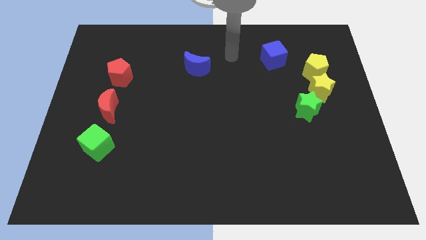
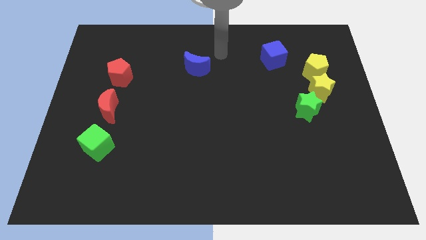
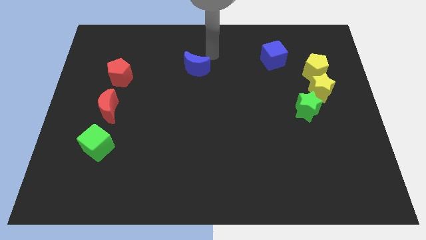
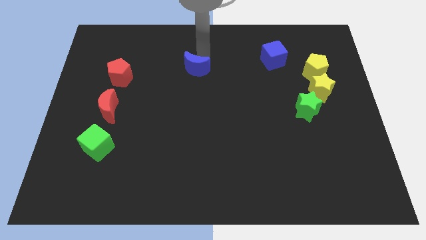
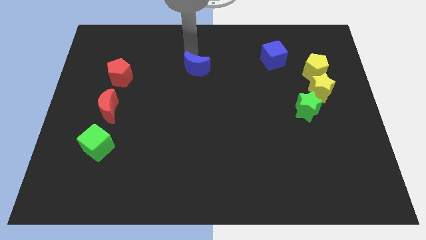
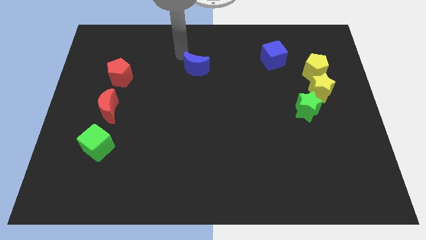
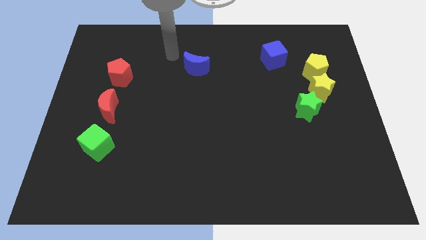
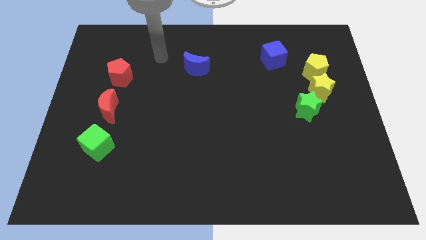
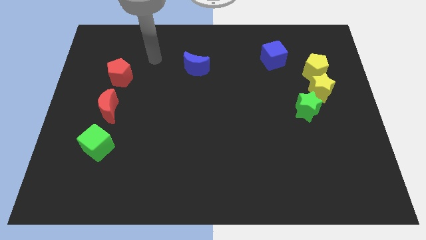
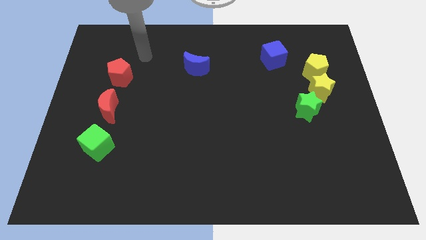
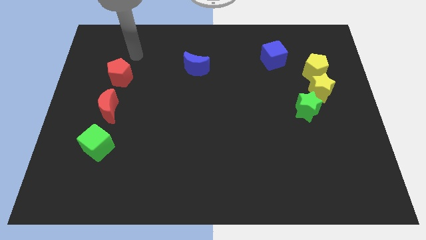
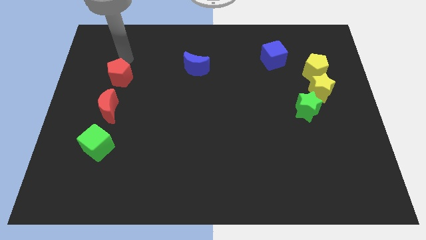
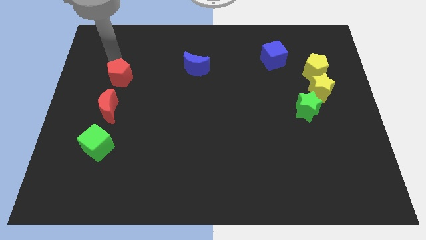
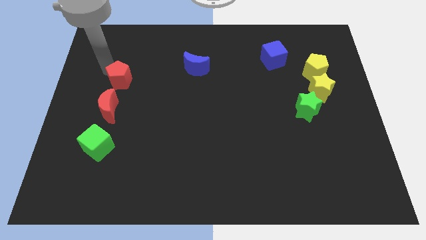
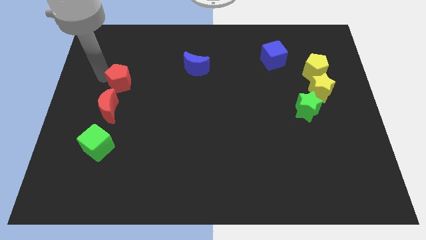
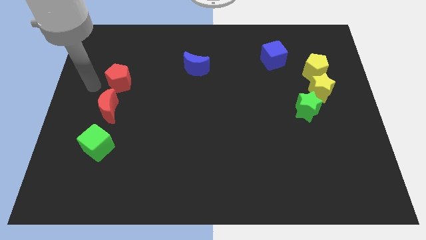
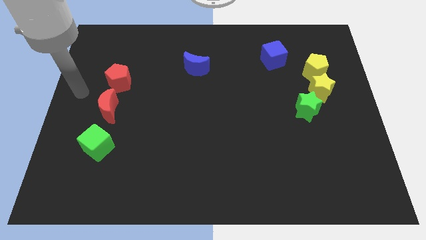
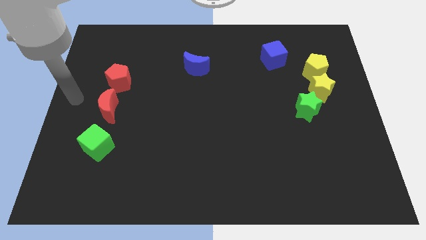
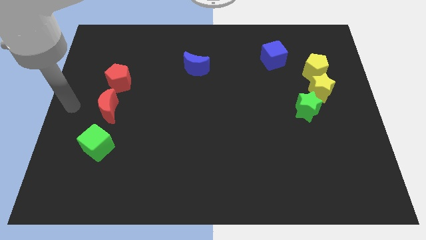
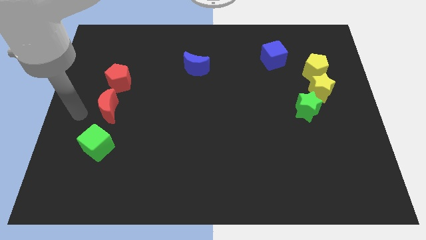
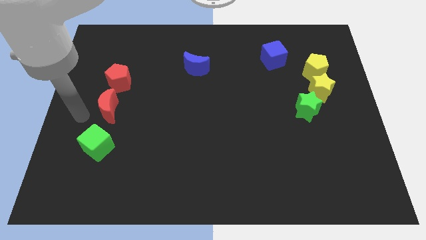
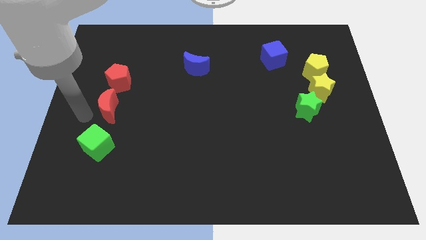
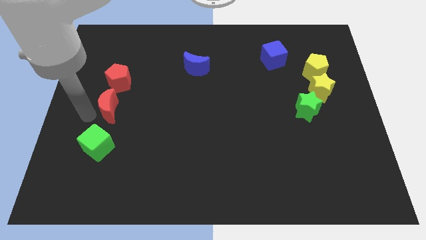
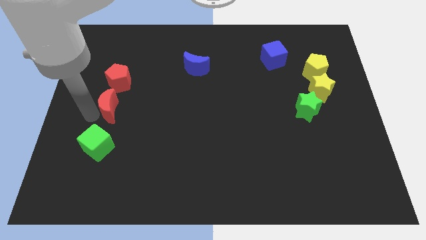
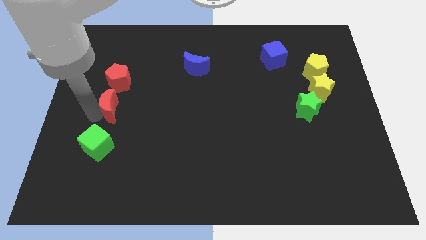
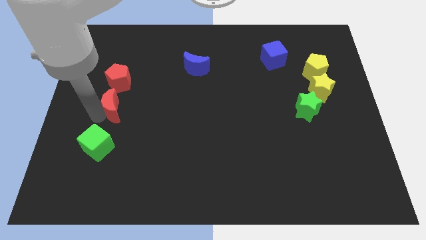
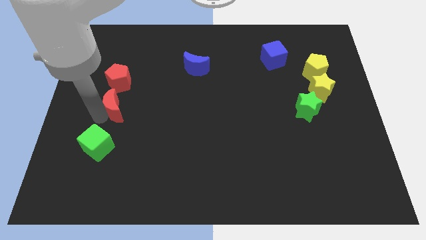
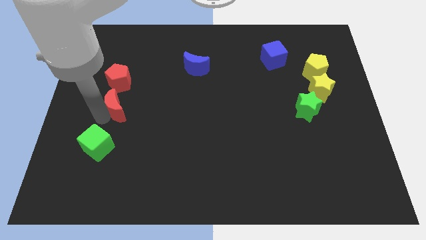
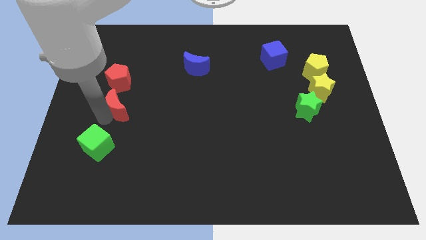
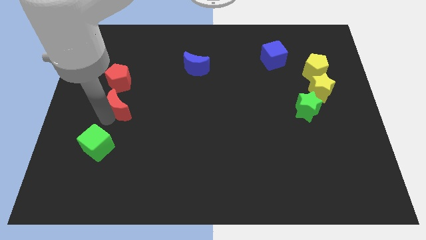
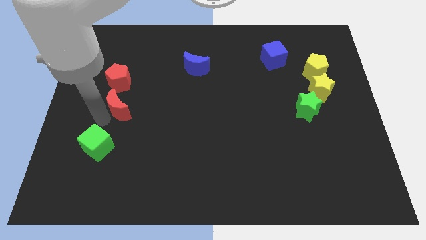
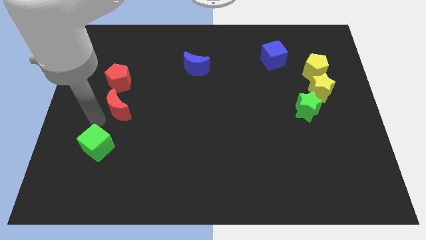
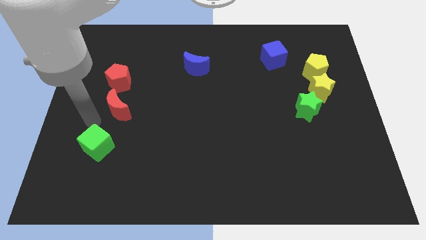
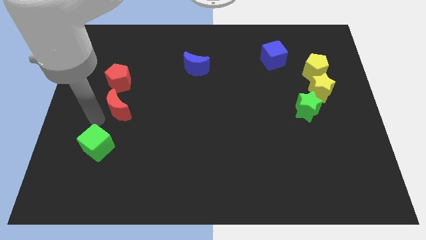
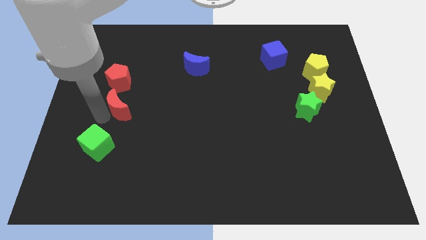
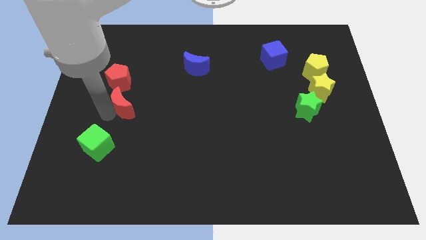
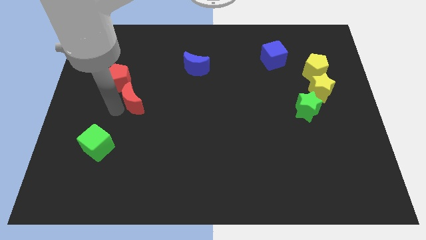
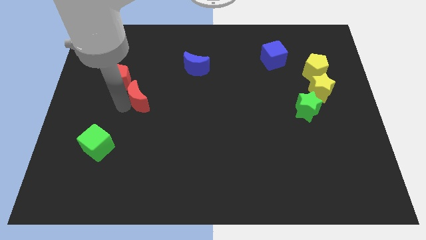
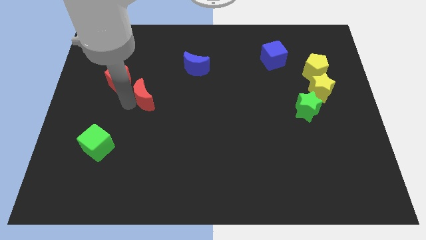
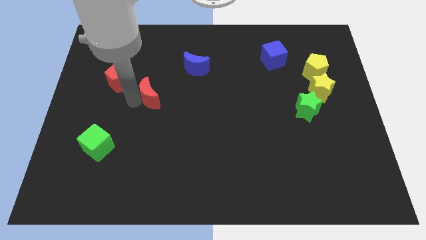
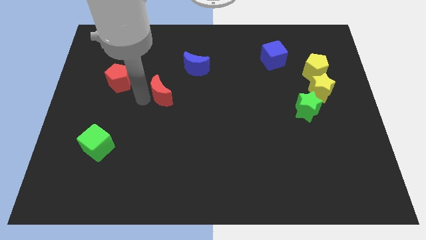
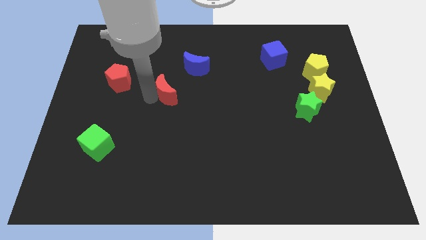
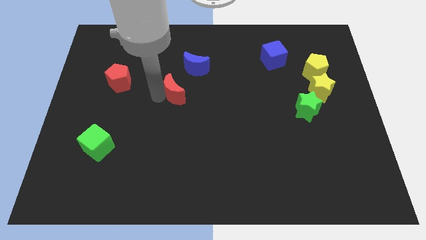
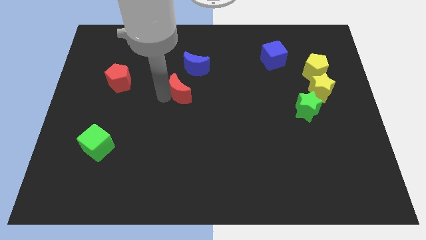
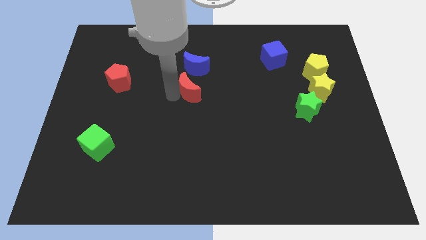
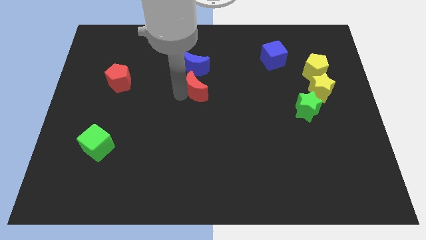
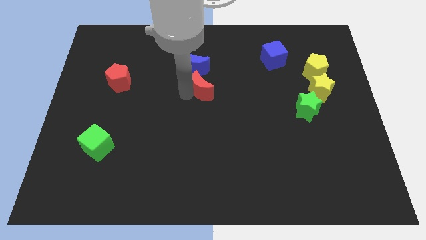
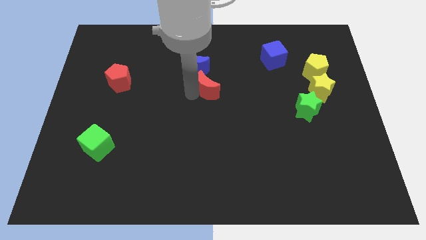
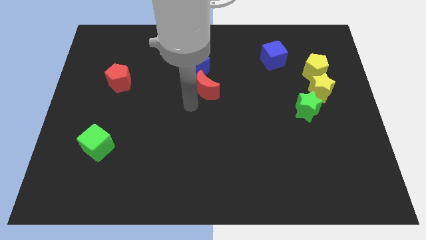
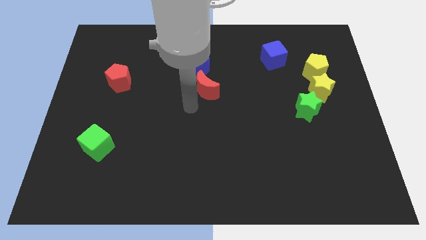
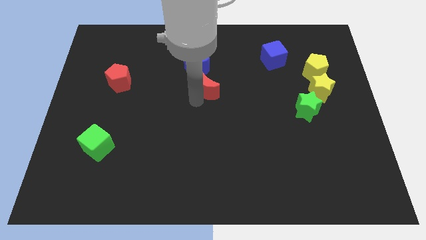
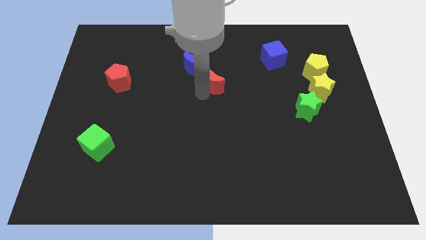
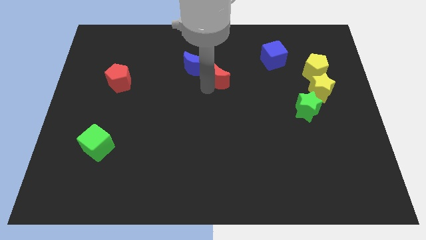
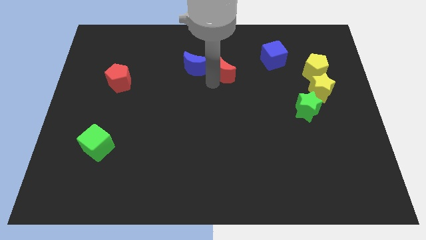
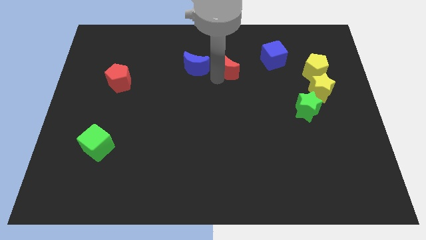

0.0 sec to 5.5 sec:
slide the red moon to the left of the blue cube

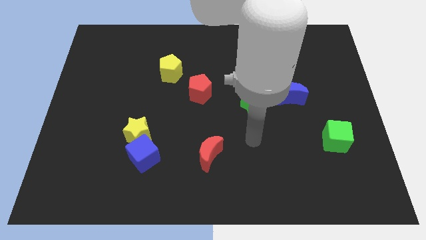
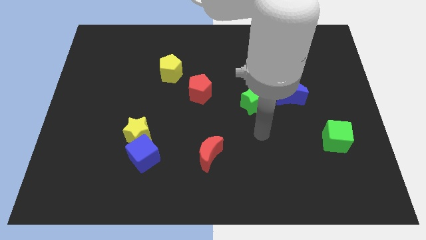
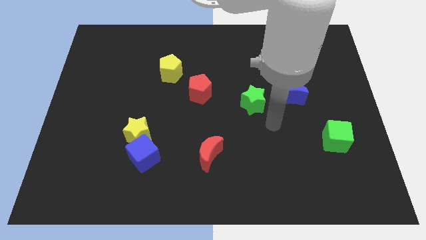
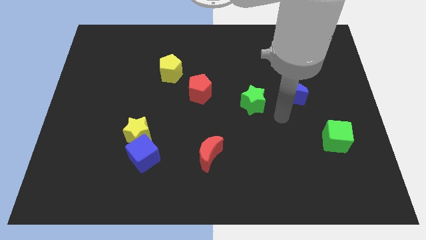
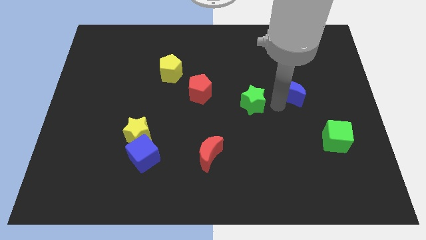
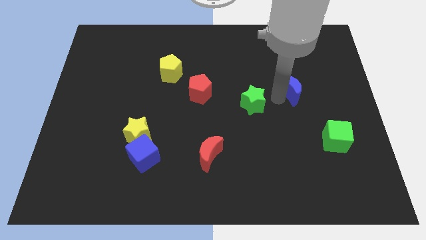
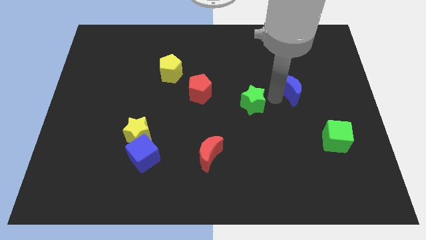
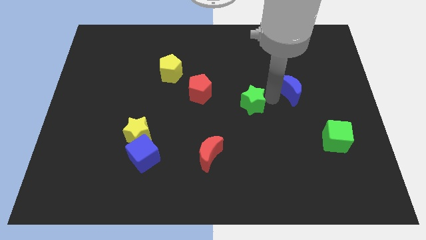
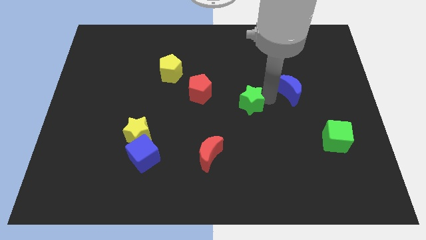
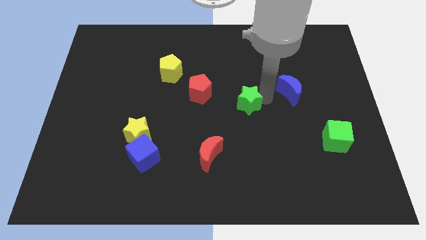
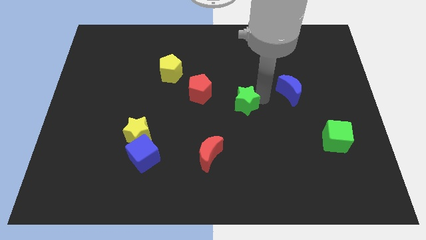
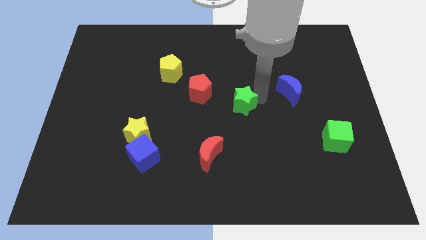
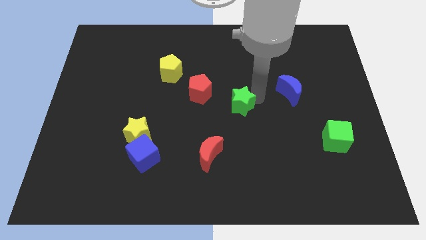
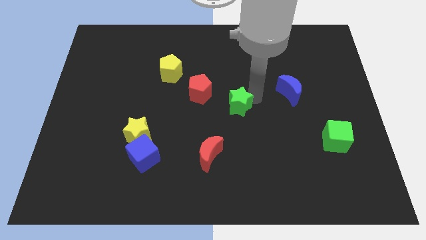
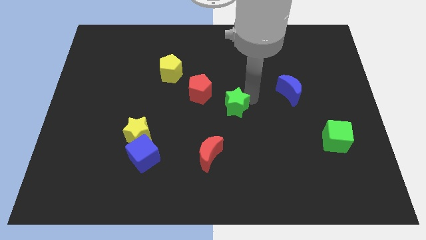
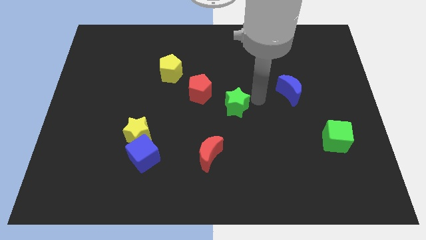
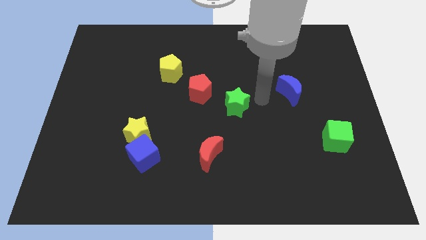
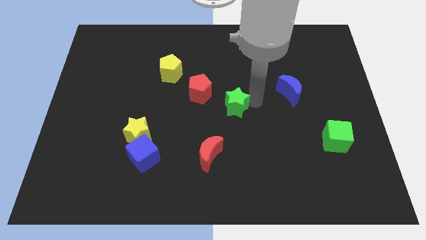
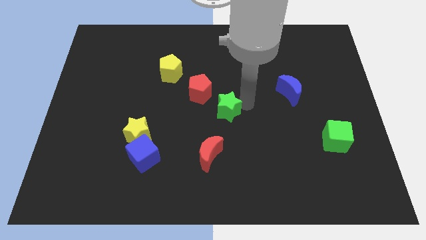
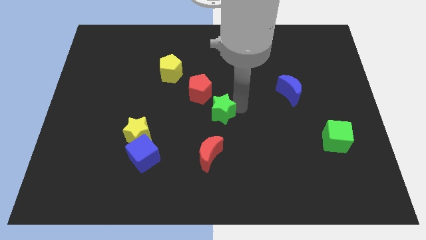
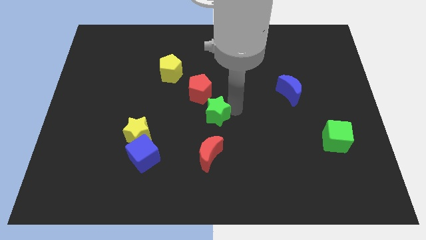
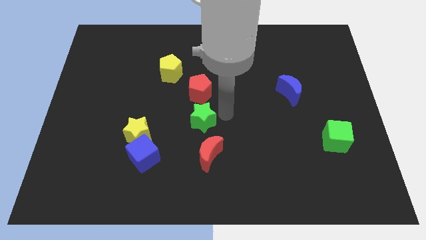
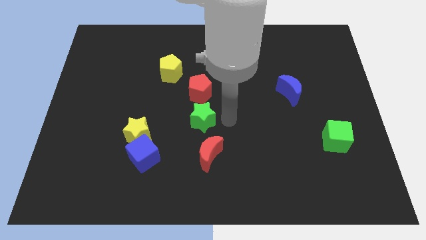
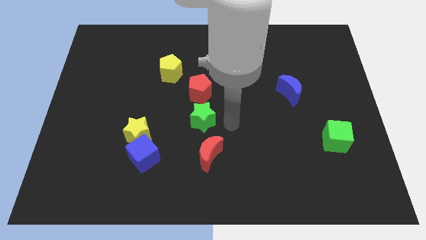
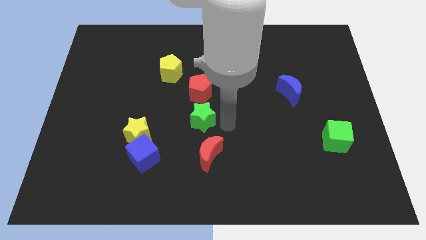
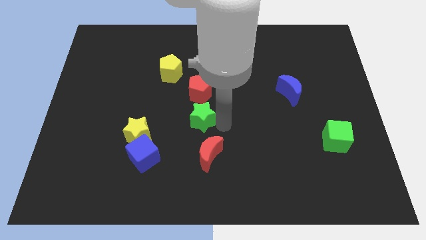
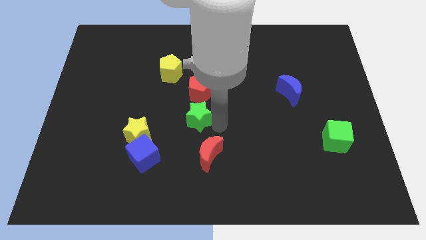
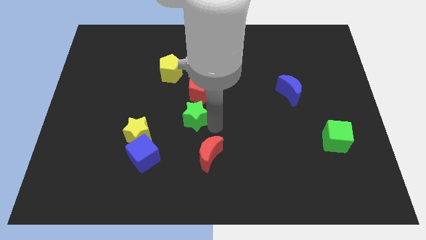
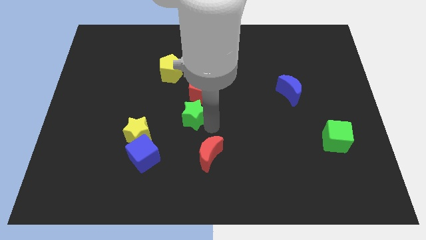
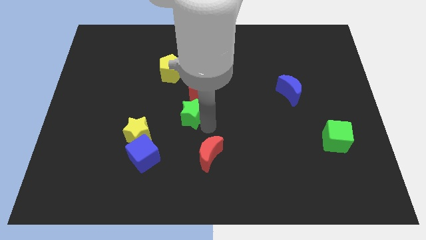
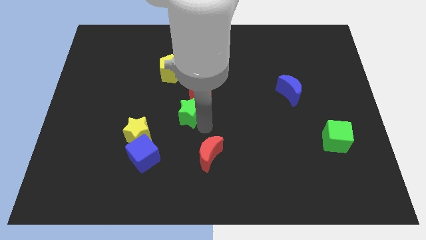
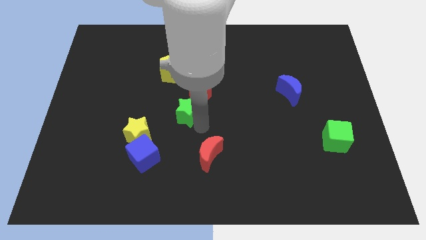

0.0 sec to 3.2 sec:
slide the green star to the top right of the yellow star
